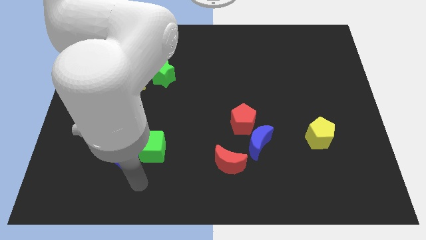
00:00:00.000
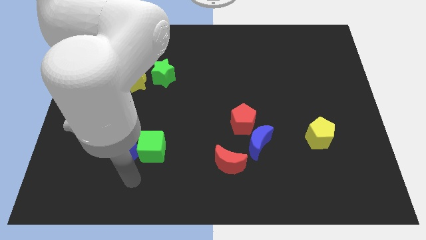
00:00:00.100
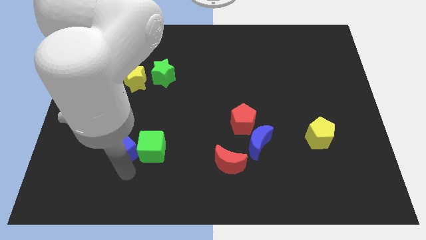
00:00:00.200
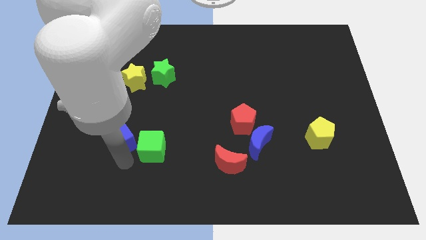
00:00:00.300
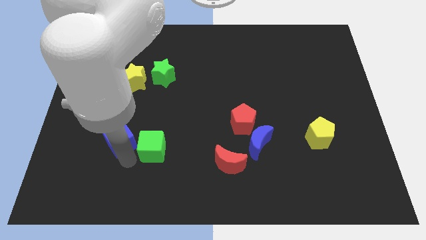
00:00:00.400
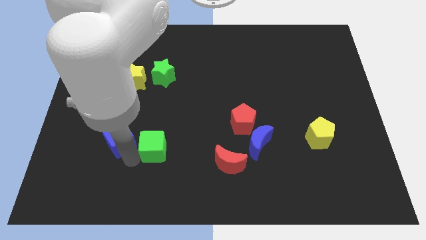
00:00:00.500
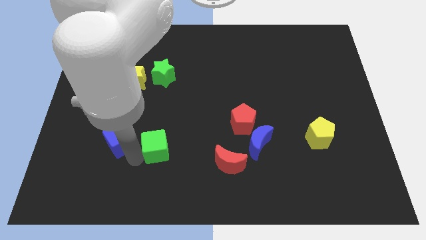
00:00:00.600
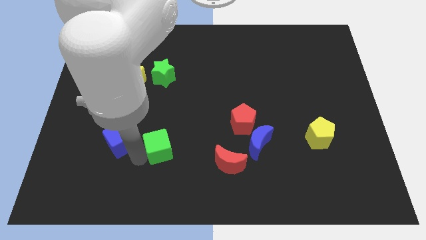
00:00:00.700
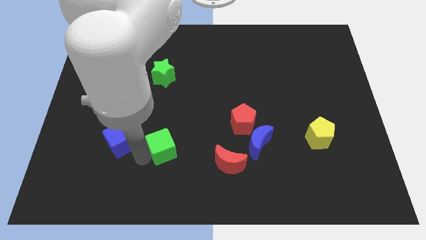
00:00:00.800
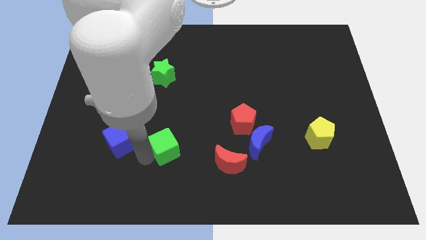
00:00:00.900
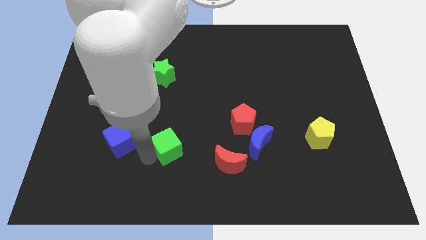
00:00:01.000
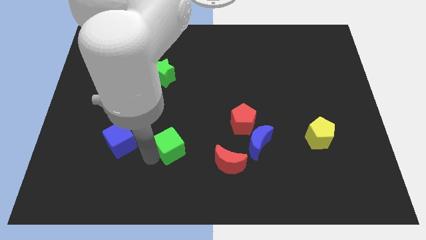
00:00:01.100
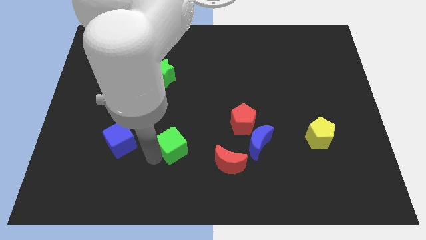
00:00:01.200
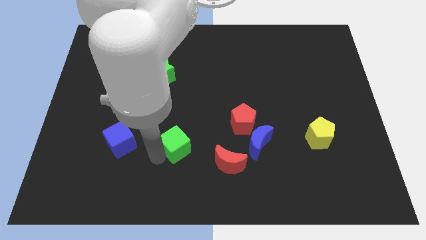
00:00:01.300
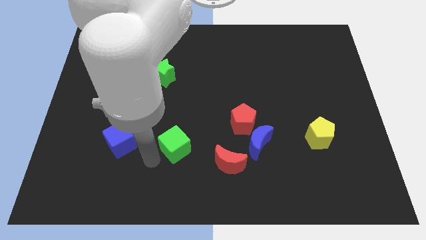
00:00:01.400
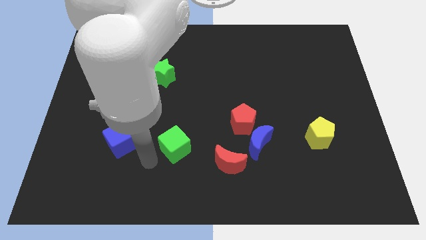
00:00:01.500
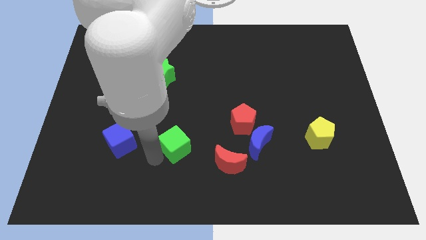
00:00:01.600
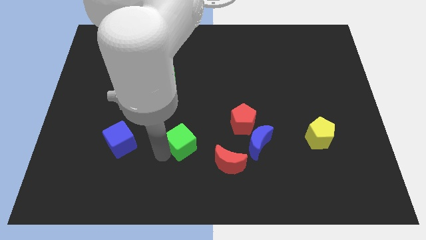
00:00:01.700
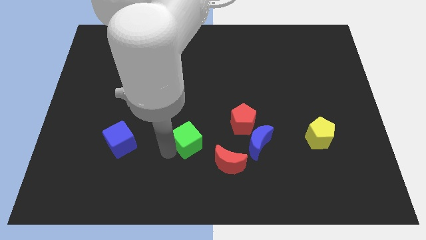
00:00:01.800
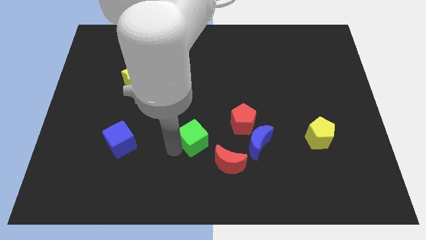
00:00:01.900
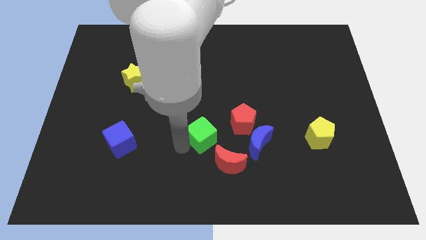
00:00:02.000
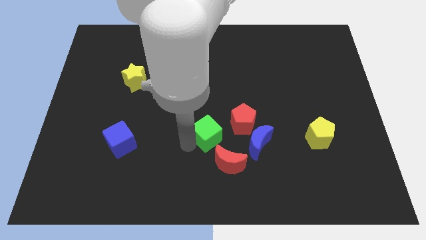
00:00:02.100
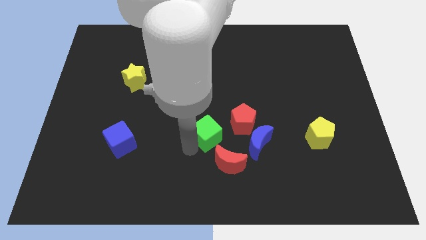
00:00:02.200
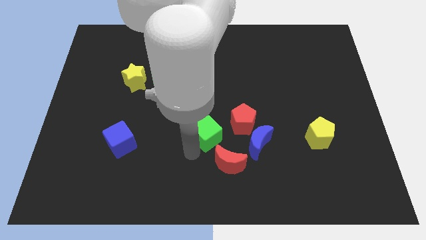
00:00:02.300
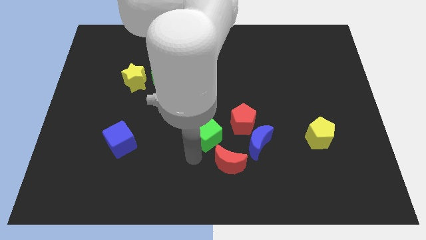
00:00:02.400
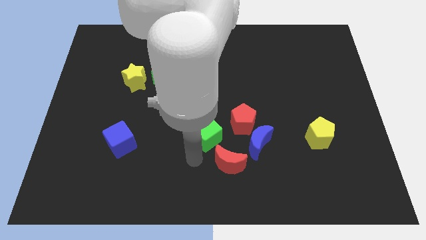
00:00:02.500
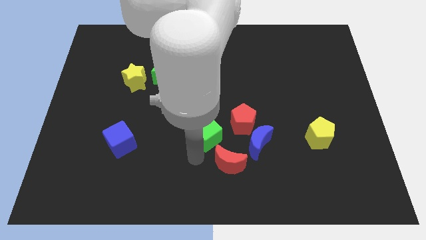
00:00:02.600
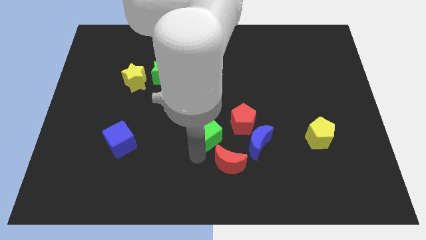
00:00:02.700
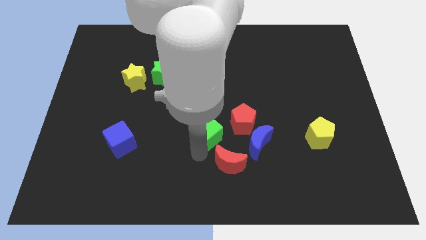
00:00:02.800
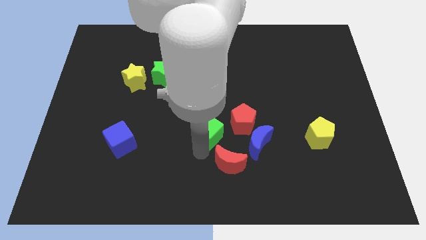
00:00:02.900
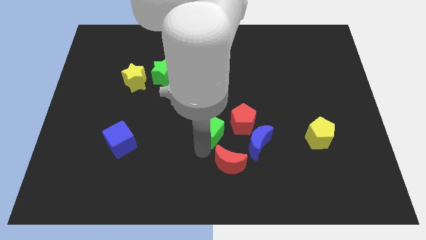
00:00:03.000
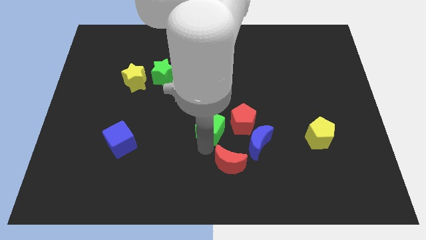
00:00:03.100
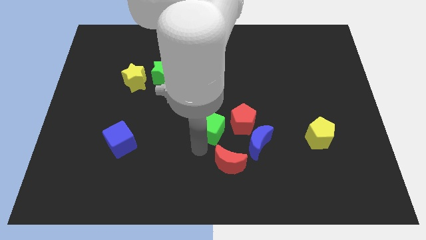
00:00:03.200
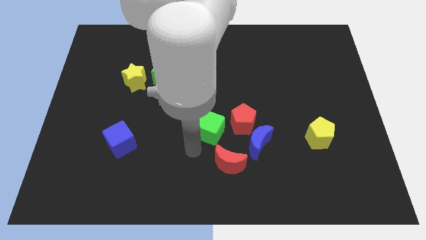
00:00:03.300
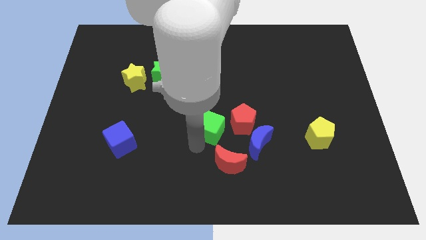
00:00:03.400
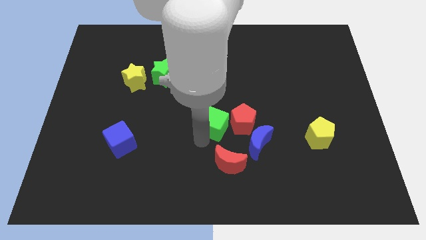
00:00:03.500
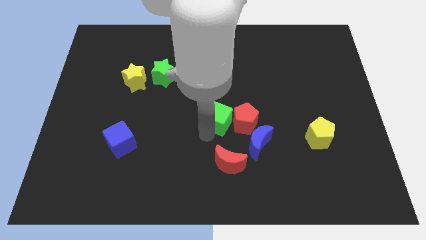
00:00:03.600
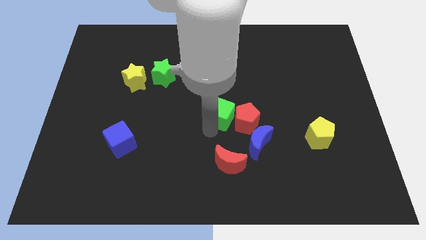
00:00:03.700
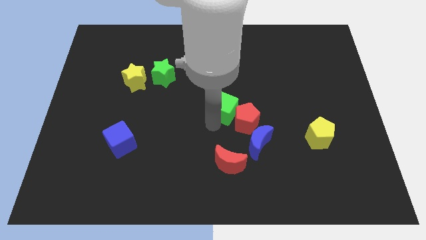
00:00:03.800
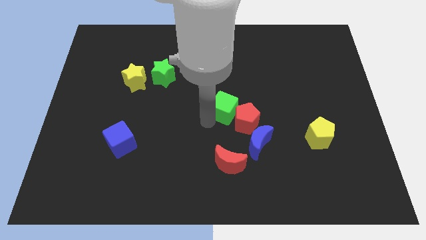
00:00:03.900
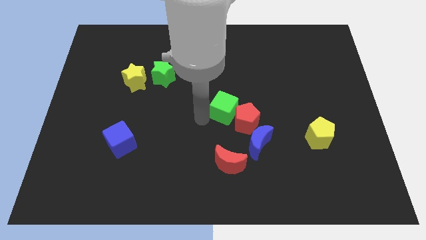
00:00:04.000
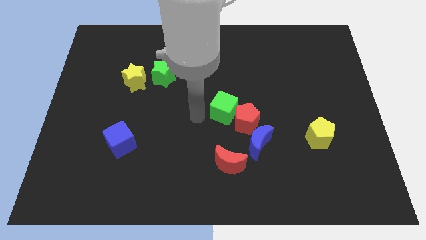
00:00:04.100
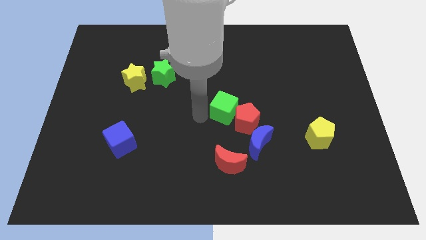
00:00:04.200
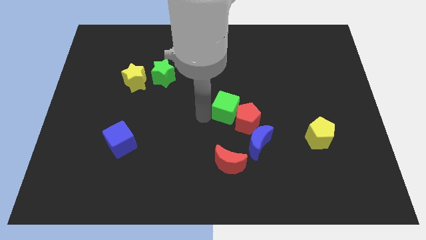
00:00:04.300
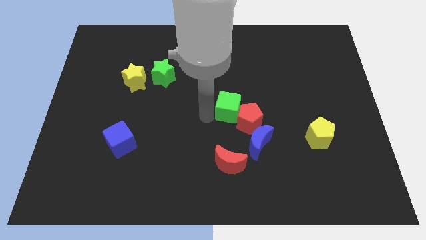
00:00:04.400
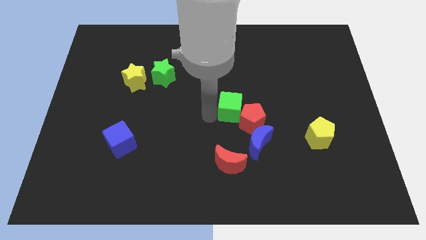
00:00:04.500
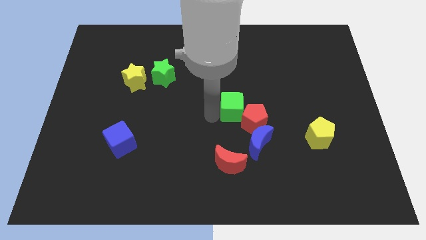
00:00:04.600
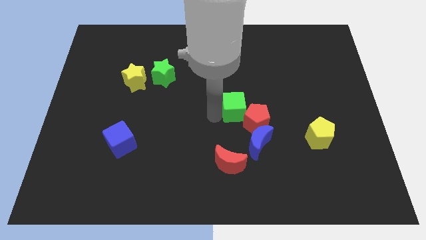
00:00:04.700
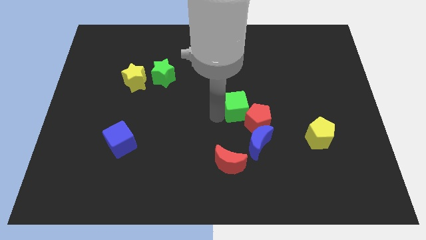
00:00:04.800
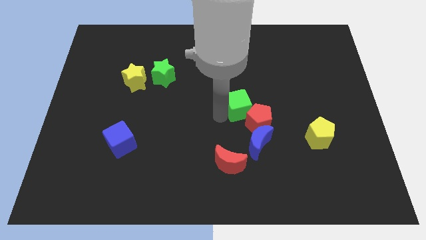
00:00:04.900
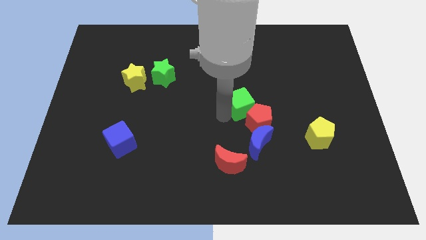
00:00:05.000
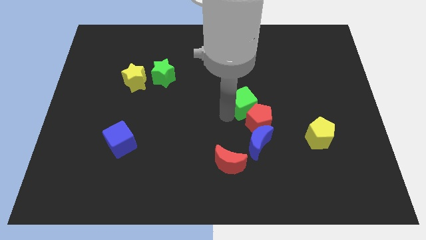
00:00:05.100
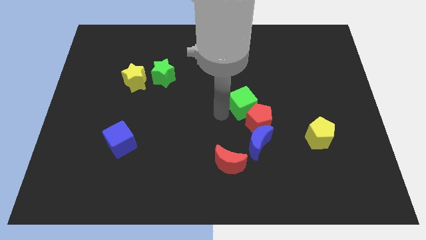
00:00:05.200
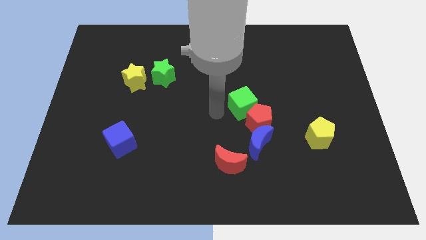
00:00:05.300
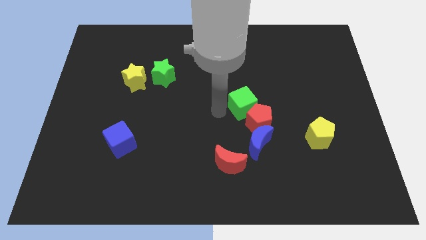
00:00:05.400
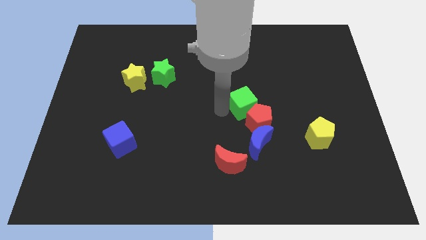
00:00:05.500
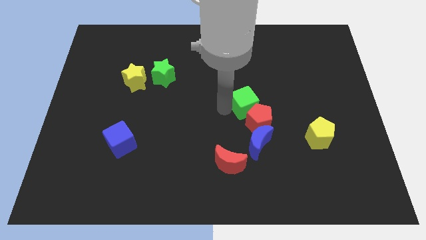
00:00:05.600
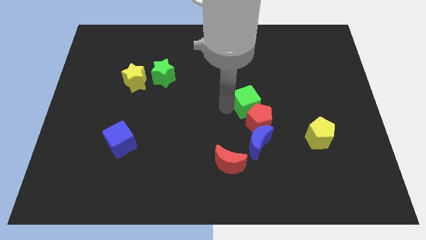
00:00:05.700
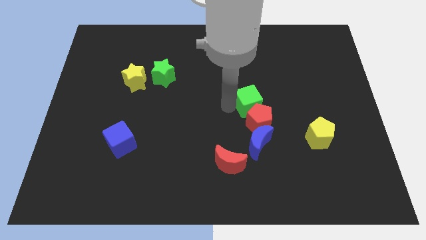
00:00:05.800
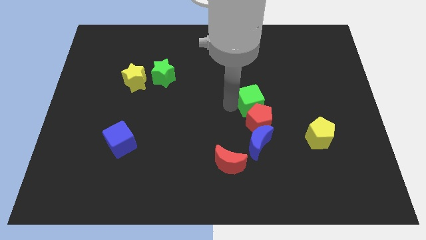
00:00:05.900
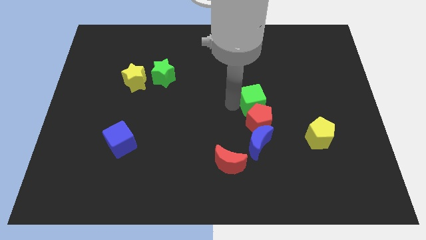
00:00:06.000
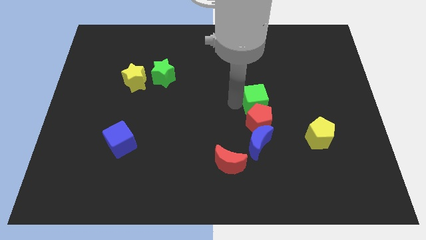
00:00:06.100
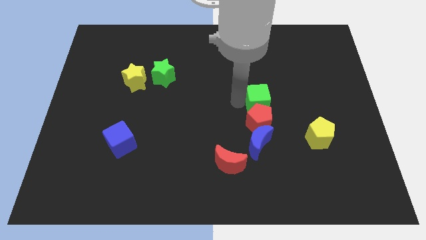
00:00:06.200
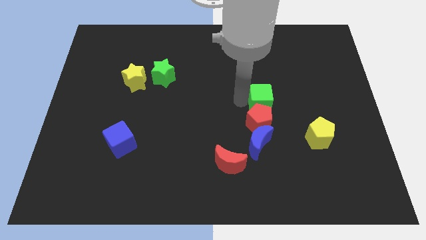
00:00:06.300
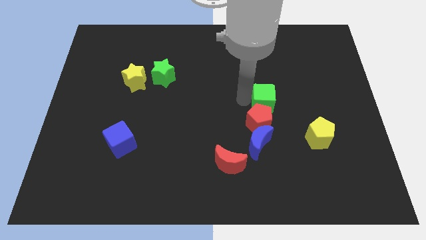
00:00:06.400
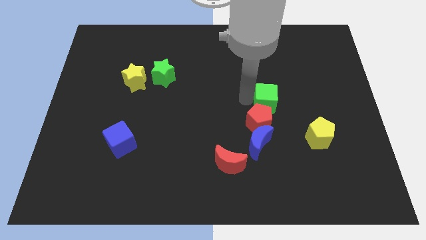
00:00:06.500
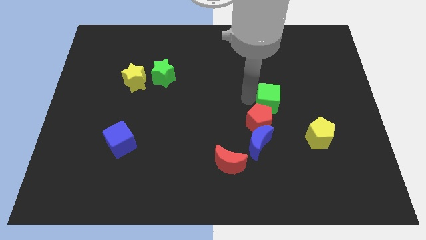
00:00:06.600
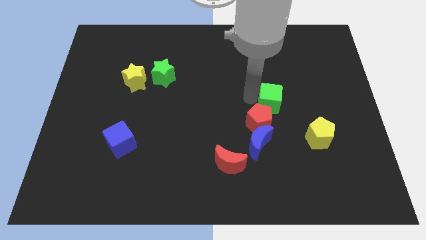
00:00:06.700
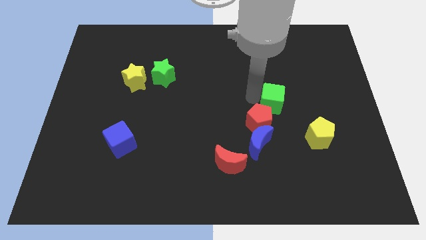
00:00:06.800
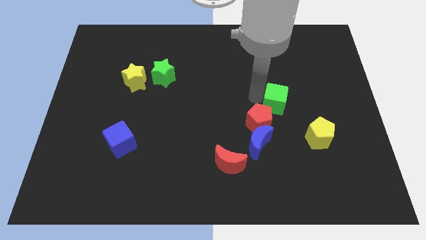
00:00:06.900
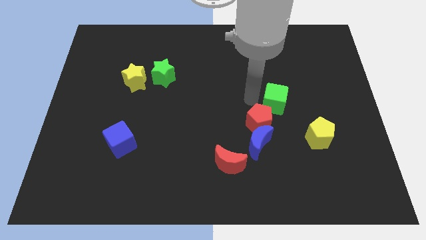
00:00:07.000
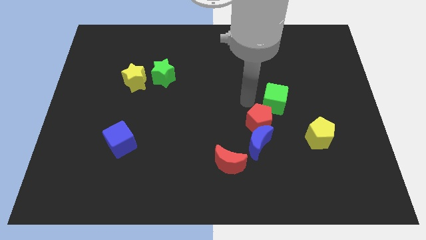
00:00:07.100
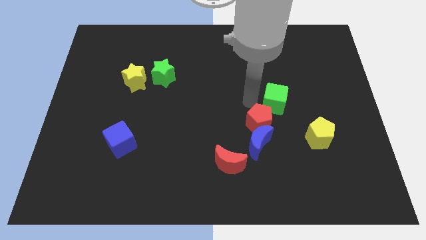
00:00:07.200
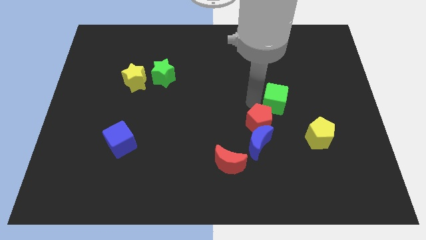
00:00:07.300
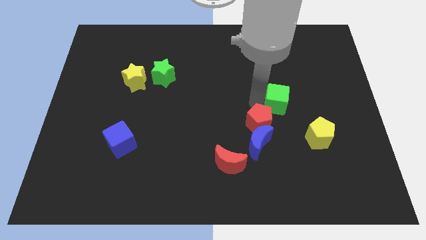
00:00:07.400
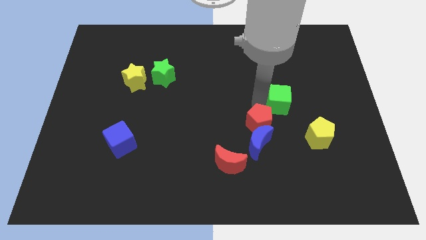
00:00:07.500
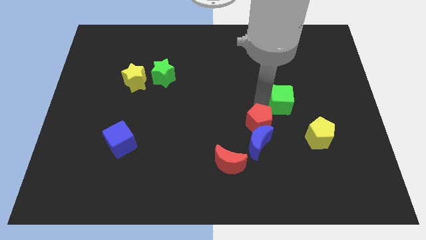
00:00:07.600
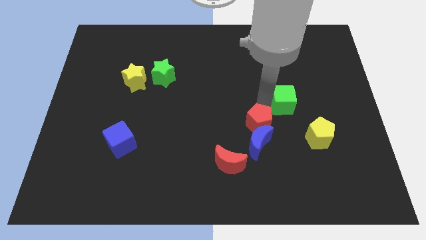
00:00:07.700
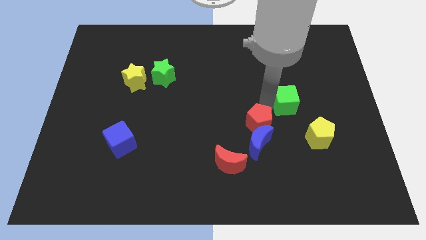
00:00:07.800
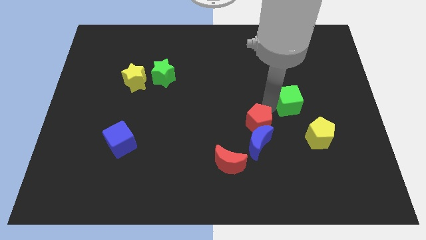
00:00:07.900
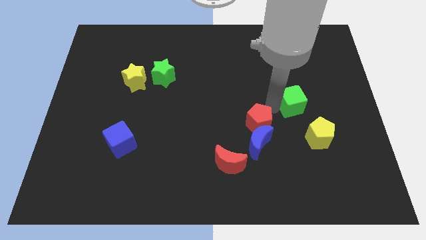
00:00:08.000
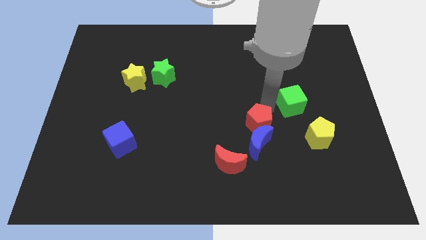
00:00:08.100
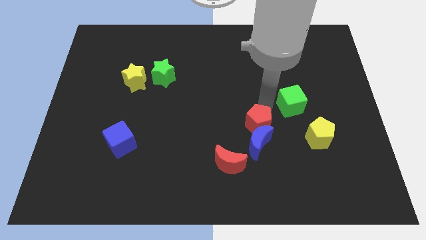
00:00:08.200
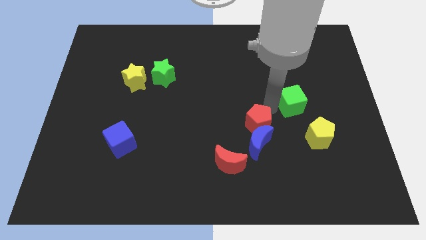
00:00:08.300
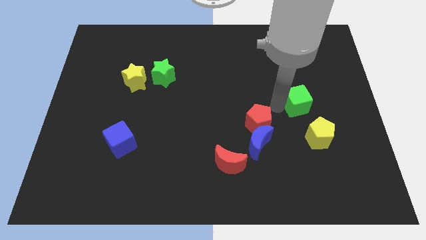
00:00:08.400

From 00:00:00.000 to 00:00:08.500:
slide the green cube to the top of the yellow pentagon
